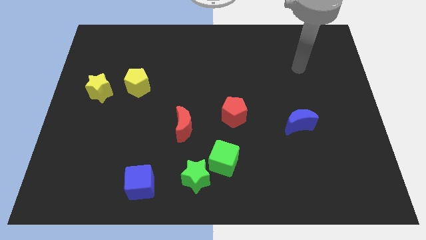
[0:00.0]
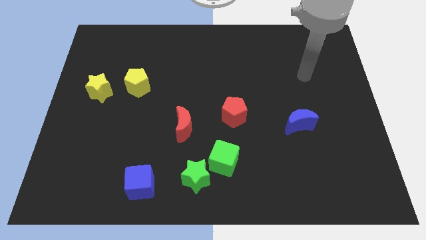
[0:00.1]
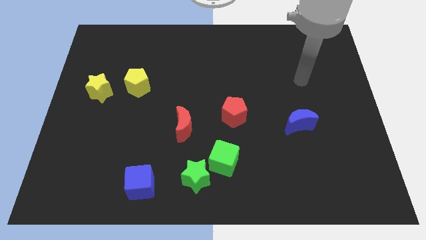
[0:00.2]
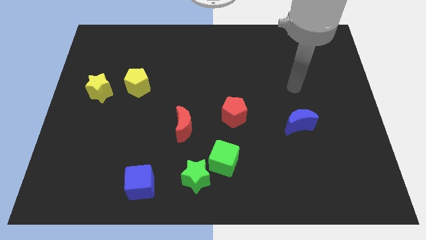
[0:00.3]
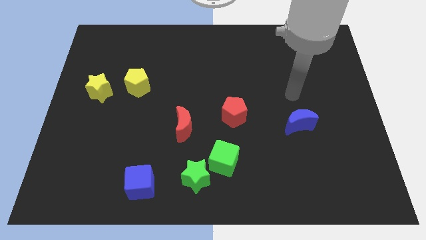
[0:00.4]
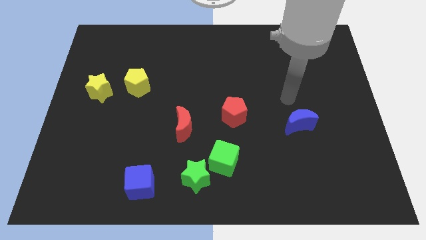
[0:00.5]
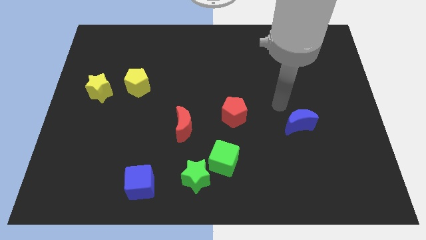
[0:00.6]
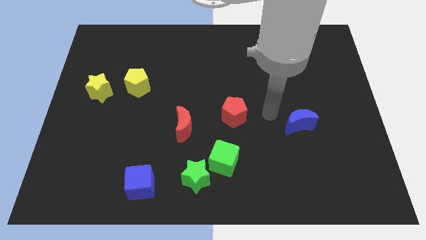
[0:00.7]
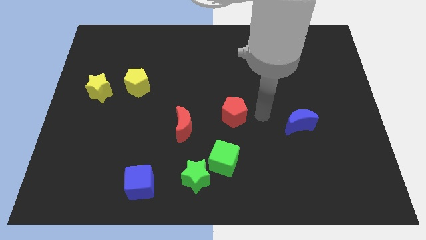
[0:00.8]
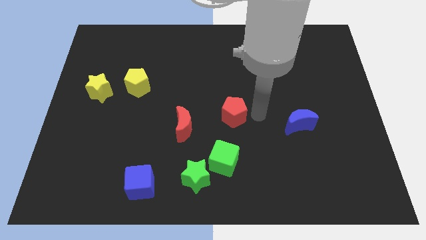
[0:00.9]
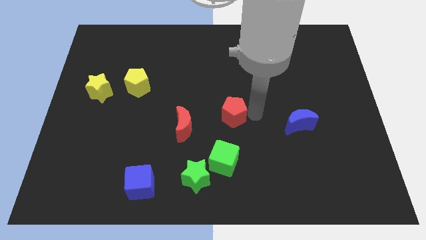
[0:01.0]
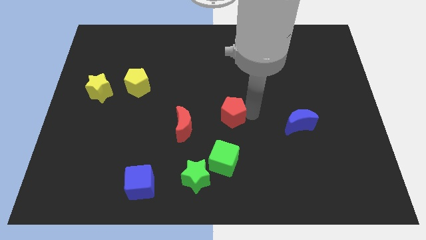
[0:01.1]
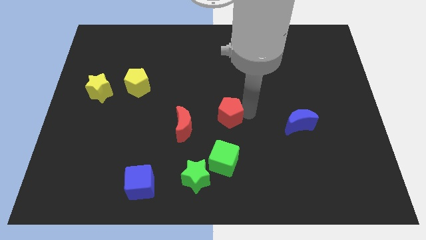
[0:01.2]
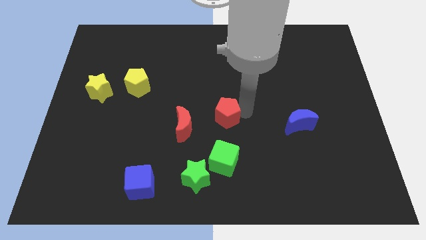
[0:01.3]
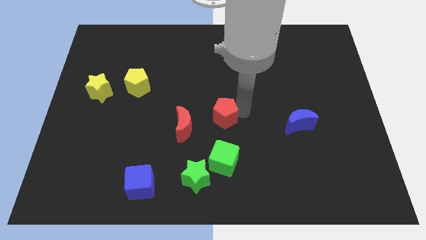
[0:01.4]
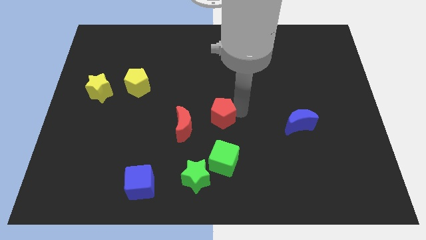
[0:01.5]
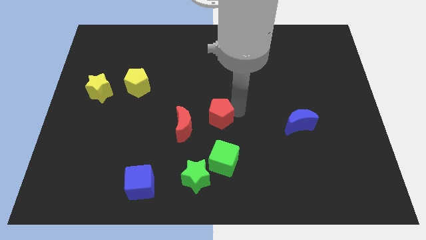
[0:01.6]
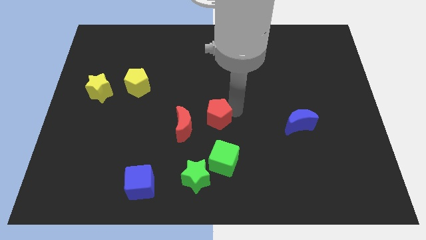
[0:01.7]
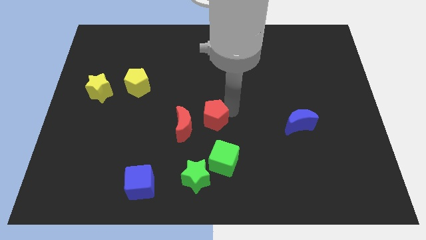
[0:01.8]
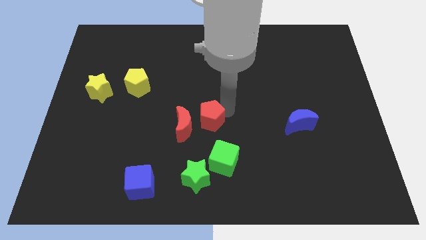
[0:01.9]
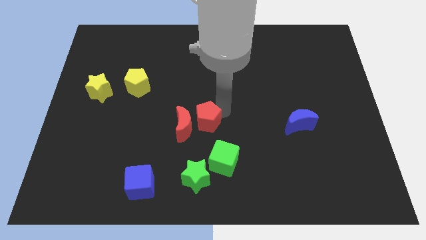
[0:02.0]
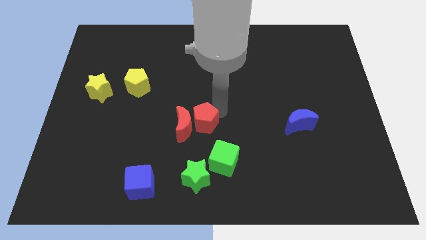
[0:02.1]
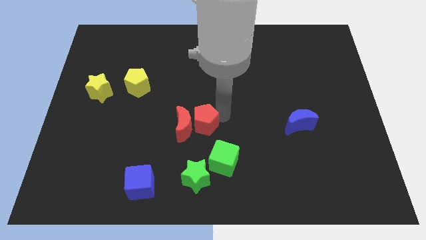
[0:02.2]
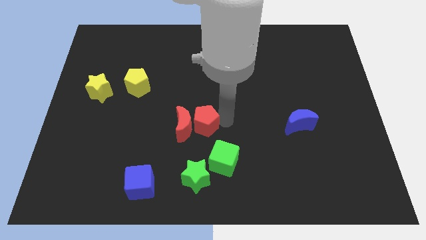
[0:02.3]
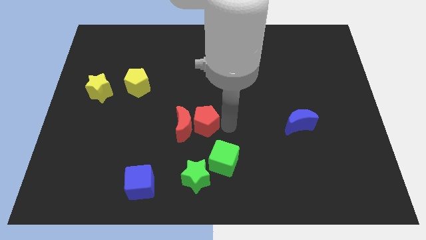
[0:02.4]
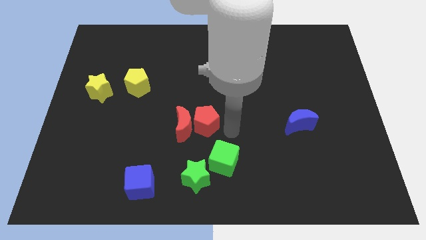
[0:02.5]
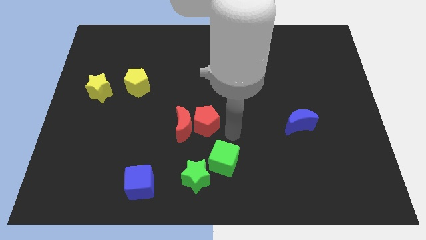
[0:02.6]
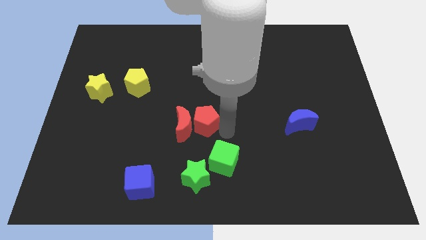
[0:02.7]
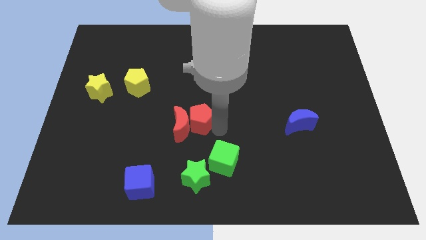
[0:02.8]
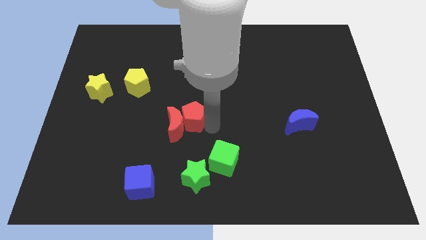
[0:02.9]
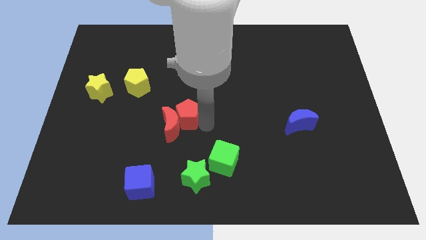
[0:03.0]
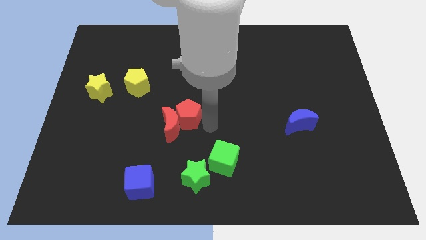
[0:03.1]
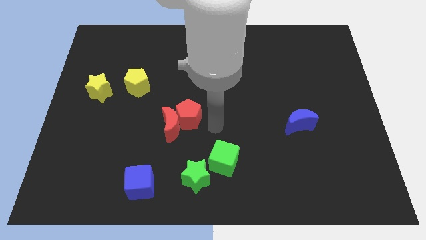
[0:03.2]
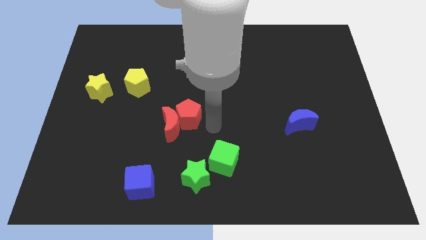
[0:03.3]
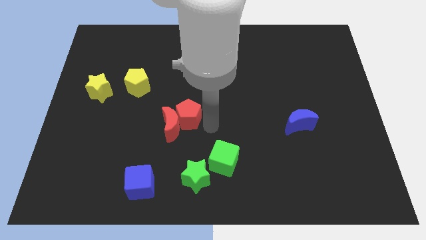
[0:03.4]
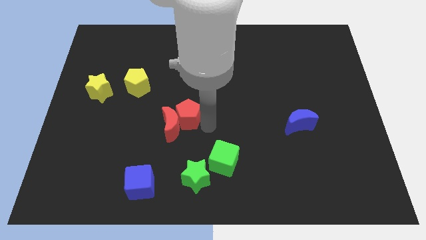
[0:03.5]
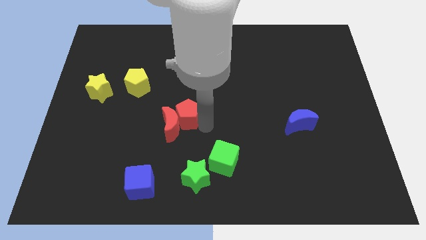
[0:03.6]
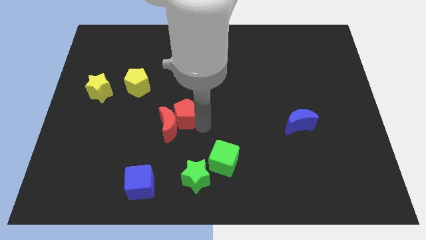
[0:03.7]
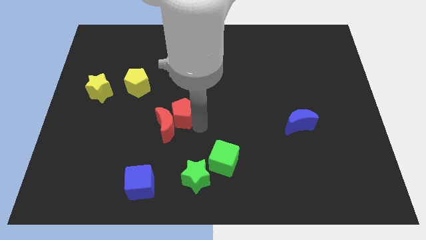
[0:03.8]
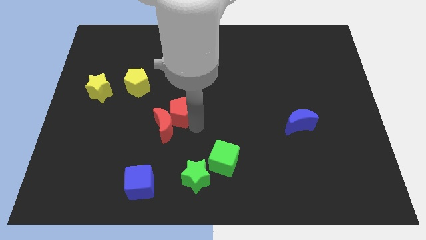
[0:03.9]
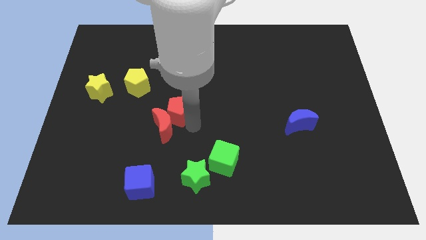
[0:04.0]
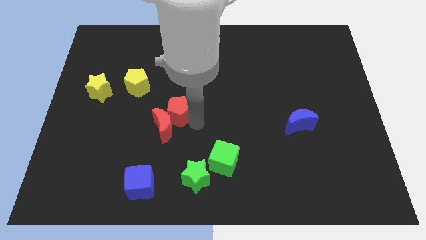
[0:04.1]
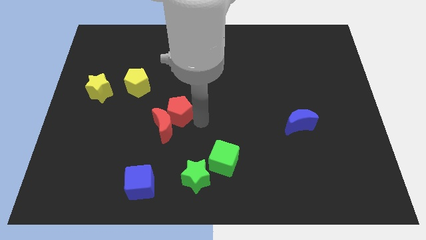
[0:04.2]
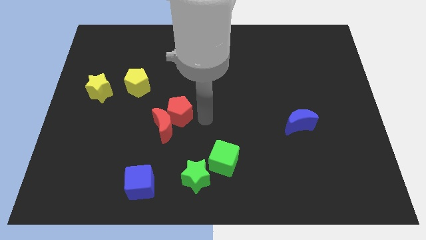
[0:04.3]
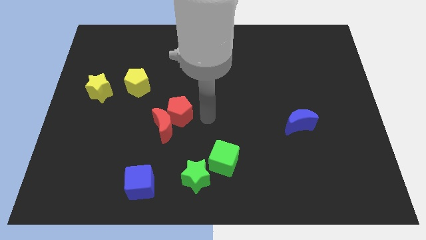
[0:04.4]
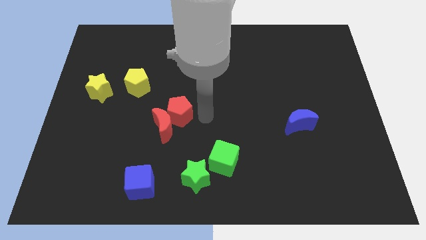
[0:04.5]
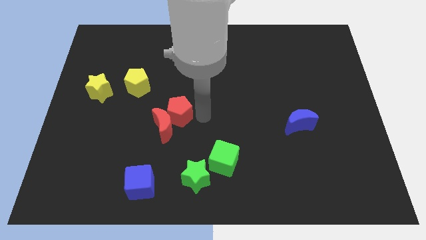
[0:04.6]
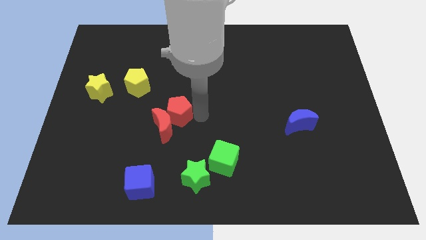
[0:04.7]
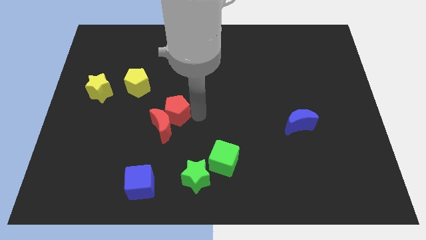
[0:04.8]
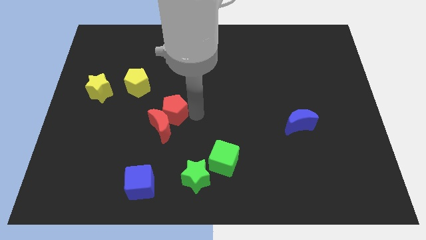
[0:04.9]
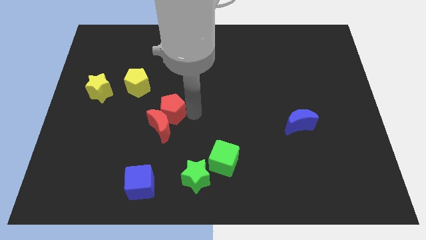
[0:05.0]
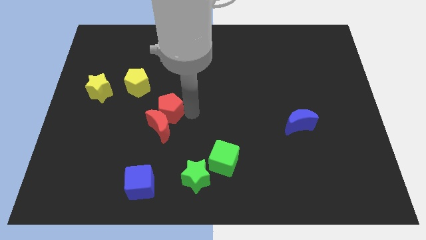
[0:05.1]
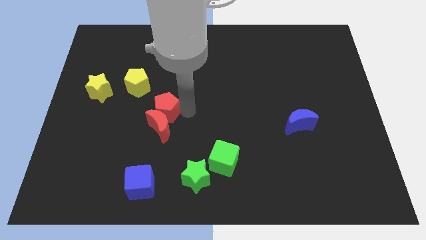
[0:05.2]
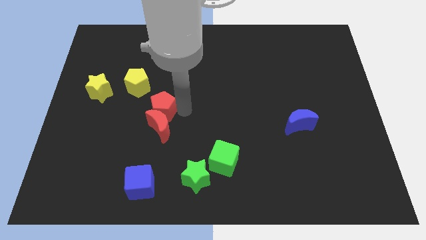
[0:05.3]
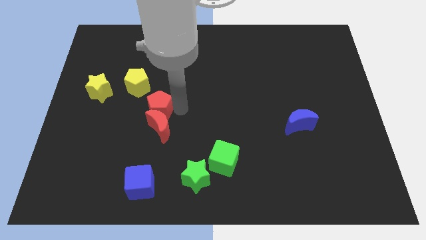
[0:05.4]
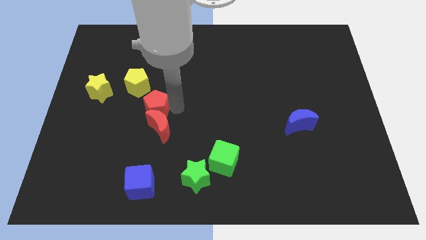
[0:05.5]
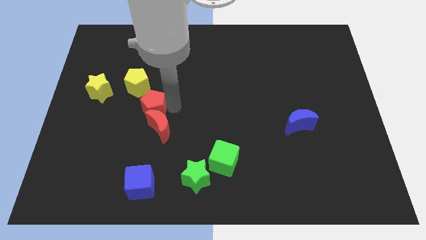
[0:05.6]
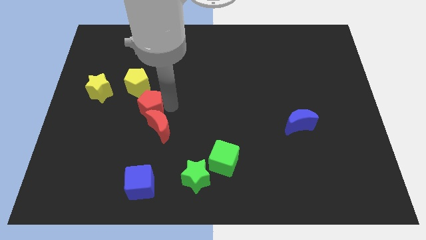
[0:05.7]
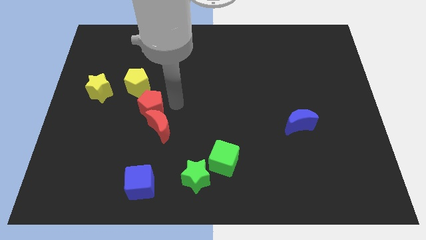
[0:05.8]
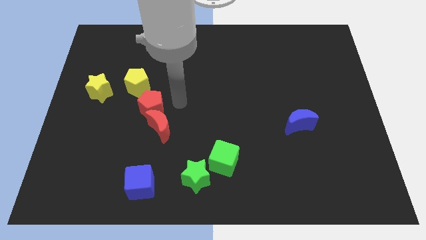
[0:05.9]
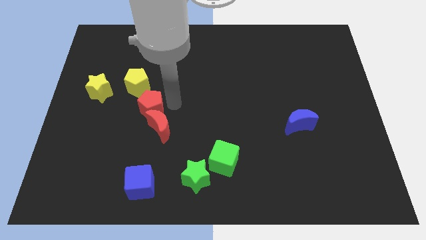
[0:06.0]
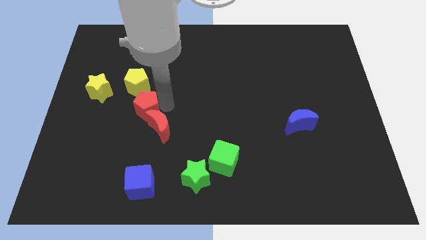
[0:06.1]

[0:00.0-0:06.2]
slide the red pentagon left

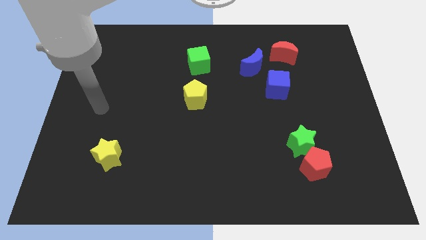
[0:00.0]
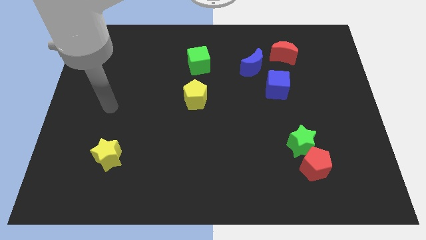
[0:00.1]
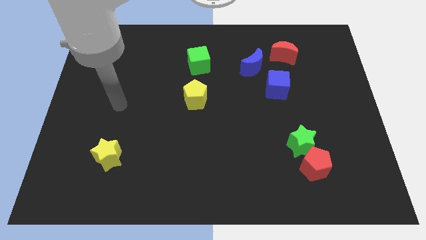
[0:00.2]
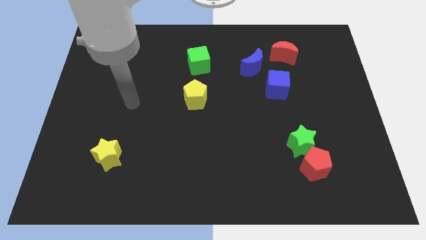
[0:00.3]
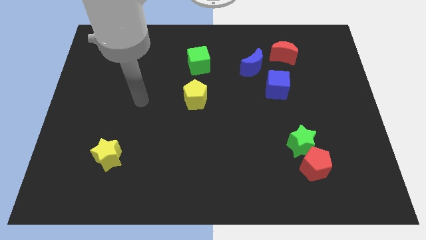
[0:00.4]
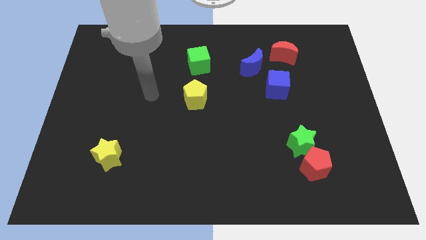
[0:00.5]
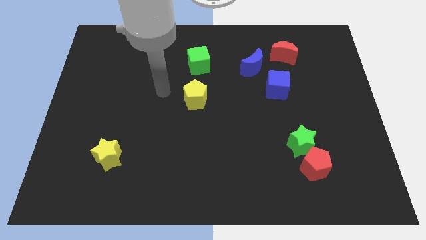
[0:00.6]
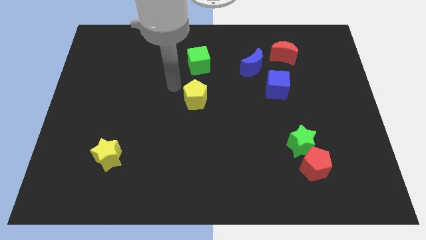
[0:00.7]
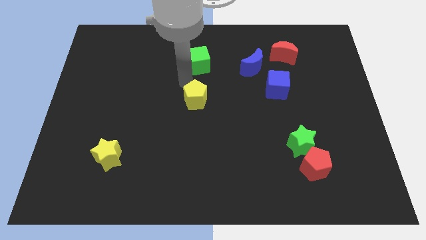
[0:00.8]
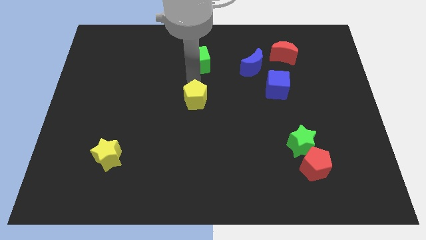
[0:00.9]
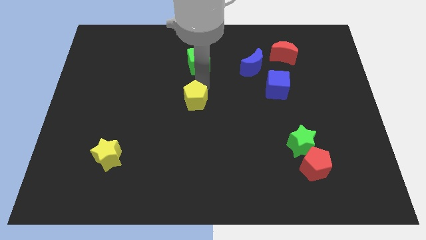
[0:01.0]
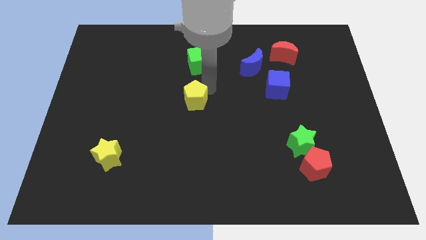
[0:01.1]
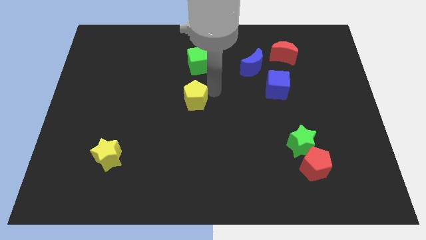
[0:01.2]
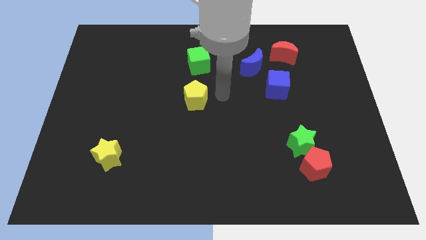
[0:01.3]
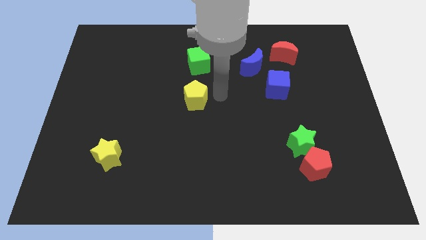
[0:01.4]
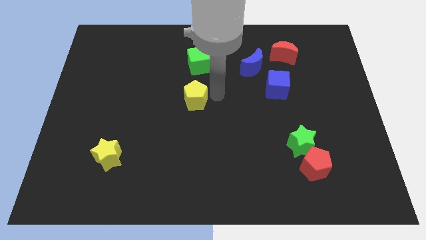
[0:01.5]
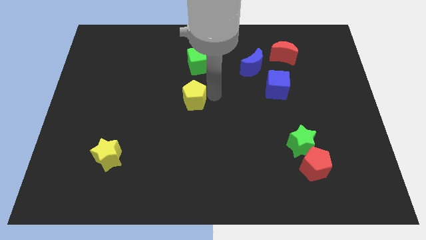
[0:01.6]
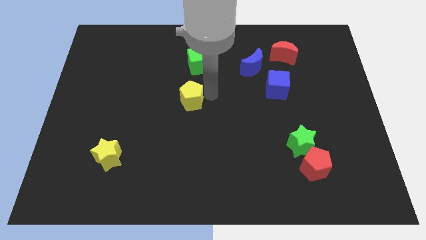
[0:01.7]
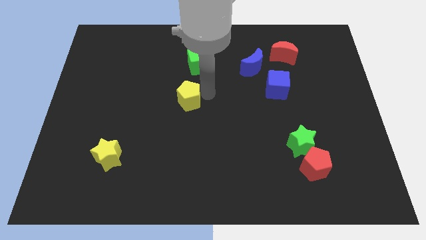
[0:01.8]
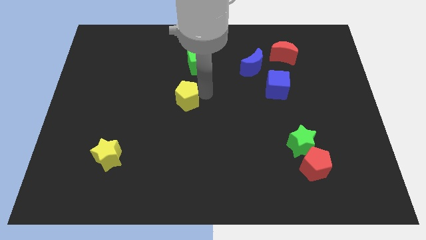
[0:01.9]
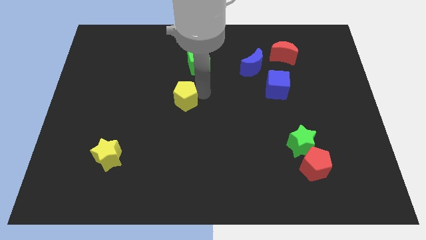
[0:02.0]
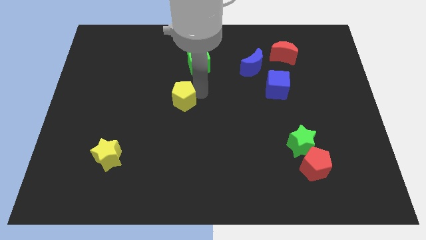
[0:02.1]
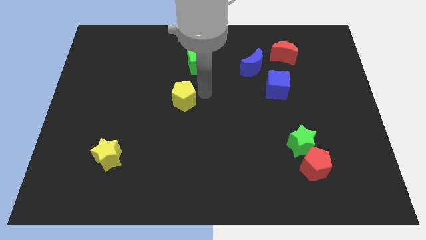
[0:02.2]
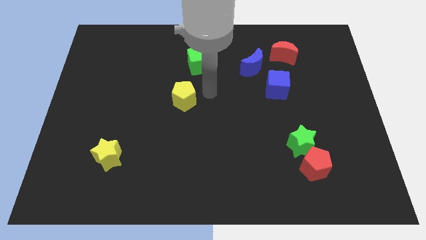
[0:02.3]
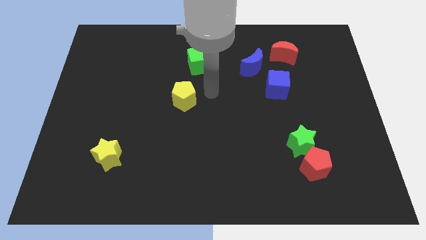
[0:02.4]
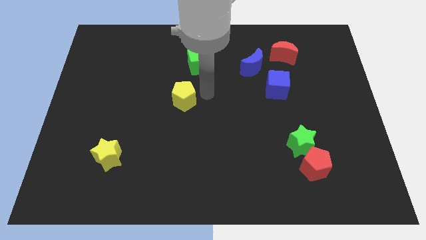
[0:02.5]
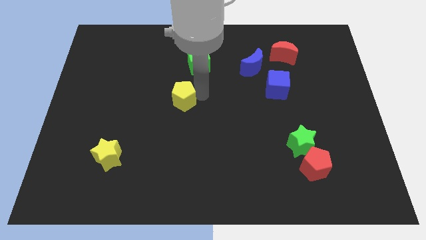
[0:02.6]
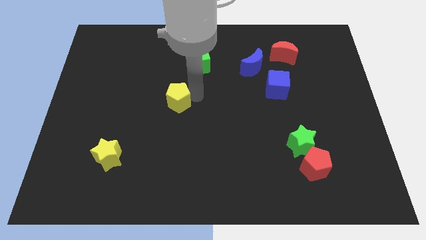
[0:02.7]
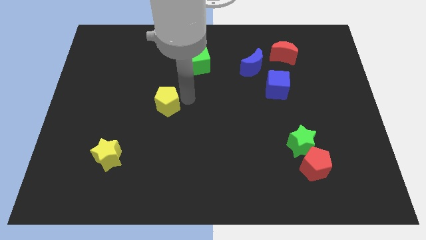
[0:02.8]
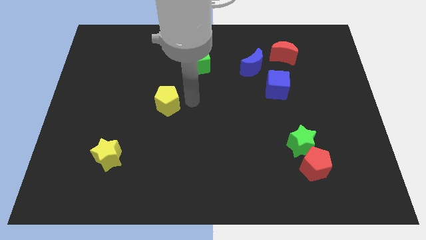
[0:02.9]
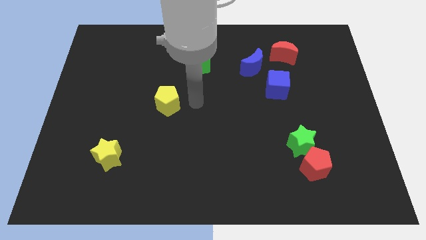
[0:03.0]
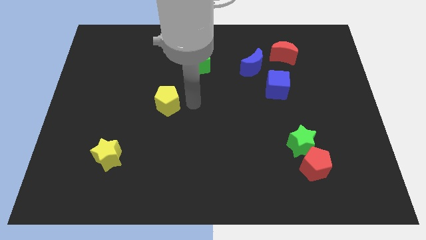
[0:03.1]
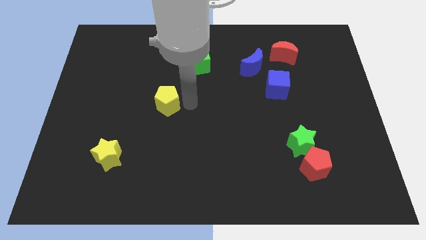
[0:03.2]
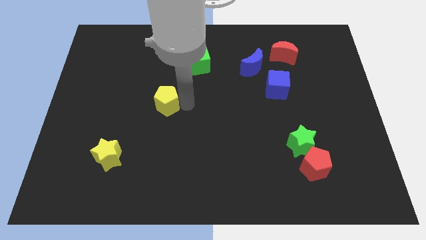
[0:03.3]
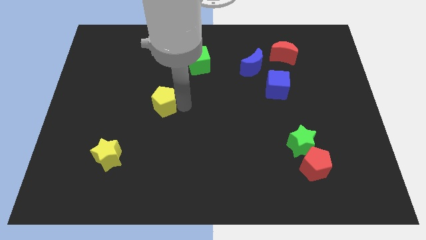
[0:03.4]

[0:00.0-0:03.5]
slightly move the yellow pentagon to the left
